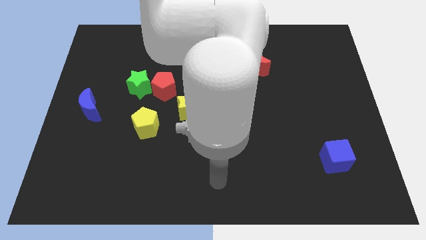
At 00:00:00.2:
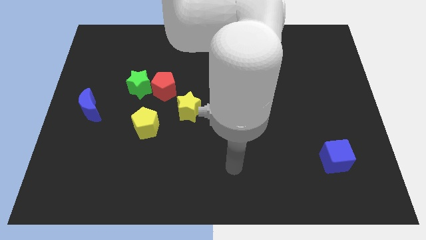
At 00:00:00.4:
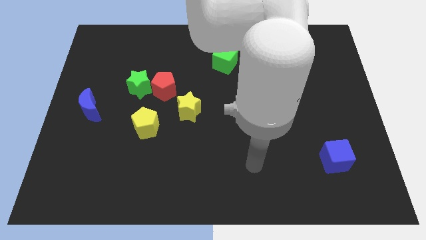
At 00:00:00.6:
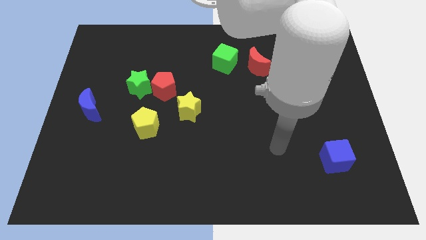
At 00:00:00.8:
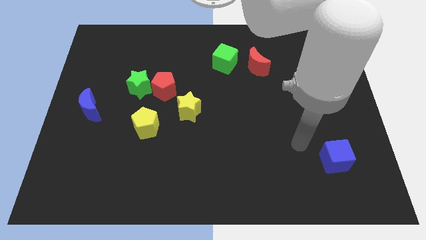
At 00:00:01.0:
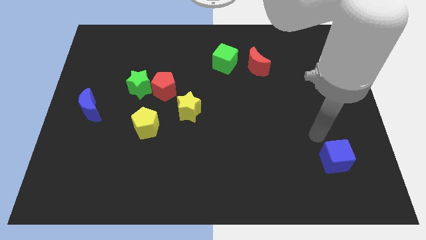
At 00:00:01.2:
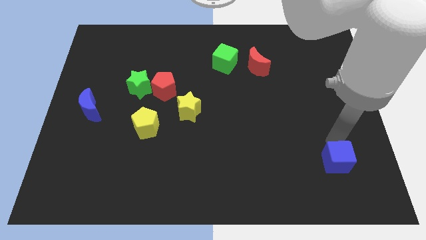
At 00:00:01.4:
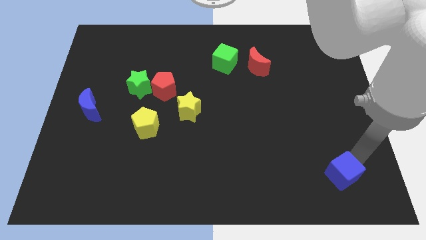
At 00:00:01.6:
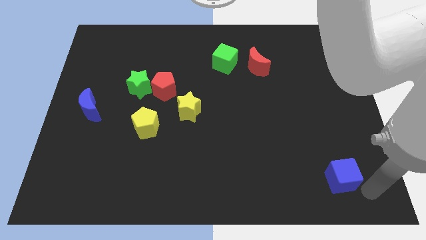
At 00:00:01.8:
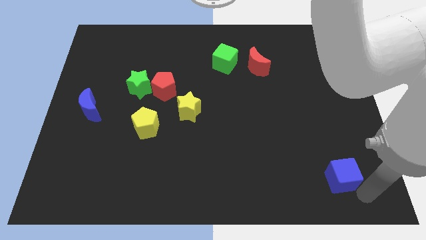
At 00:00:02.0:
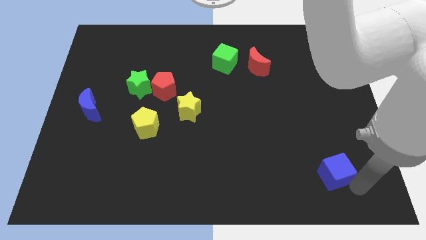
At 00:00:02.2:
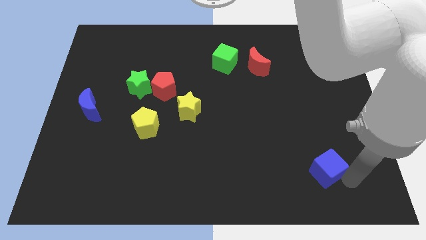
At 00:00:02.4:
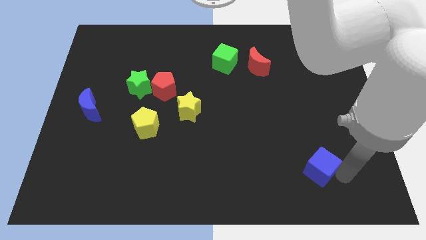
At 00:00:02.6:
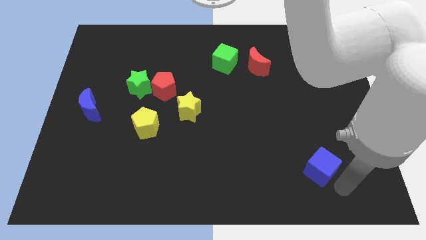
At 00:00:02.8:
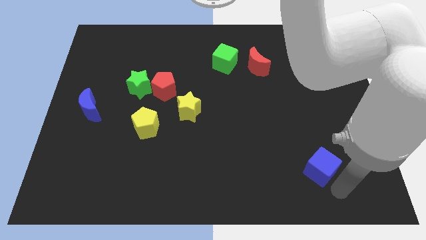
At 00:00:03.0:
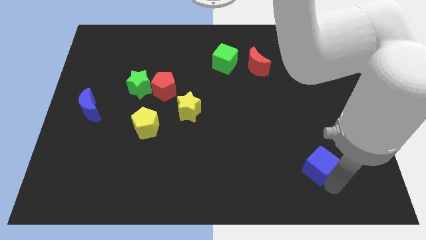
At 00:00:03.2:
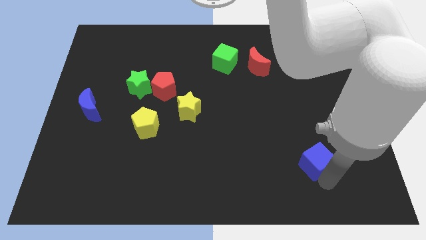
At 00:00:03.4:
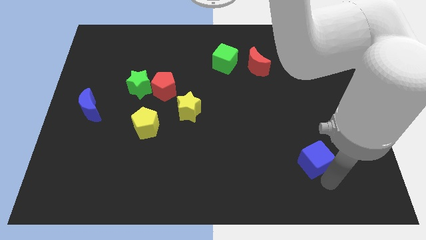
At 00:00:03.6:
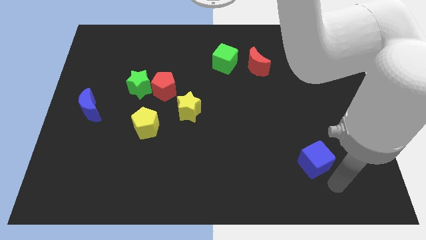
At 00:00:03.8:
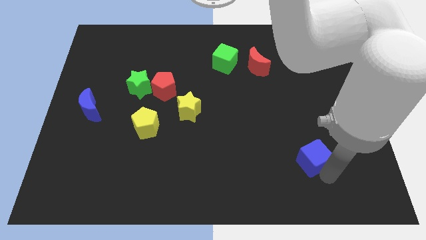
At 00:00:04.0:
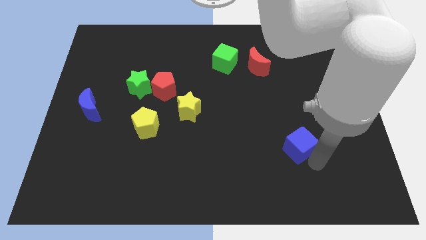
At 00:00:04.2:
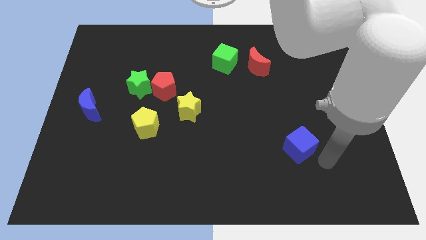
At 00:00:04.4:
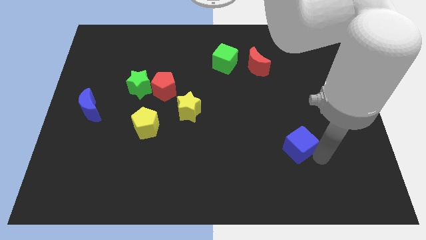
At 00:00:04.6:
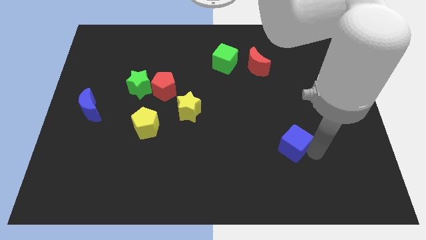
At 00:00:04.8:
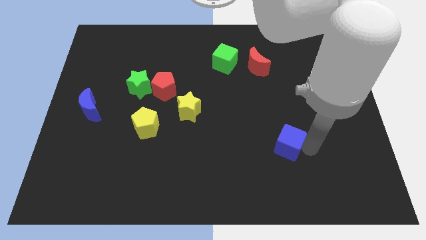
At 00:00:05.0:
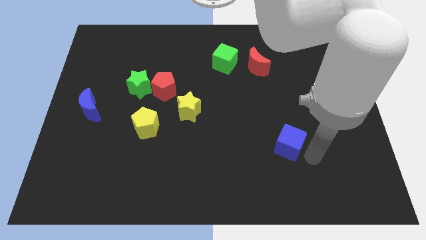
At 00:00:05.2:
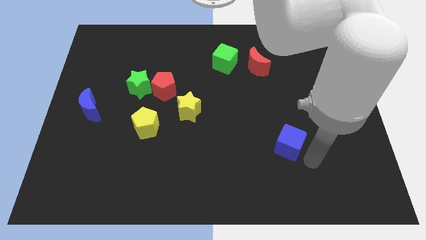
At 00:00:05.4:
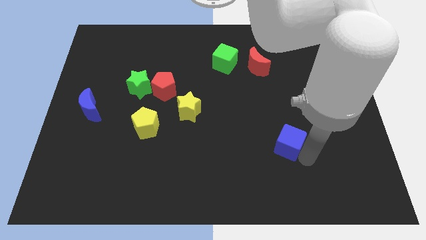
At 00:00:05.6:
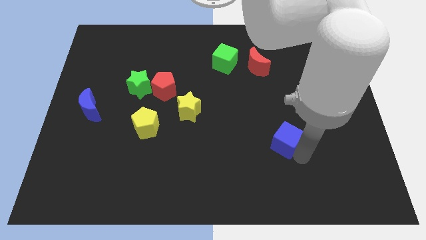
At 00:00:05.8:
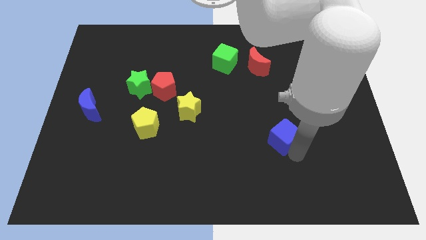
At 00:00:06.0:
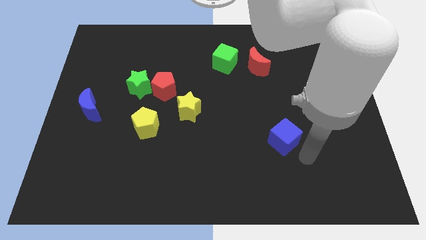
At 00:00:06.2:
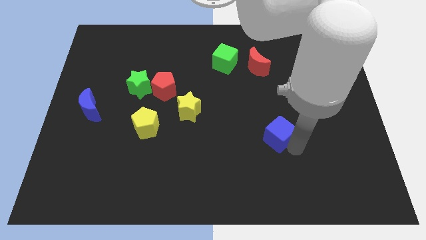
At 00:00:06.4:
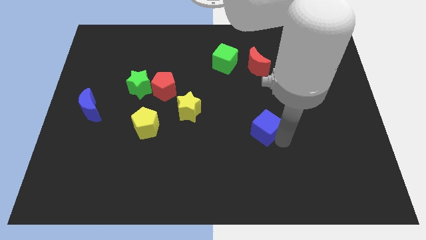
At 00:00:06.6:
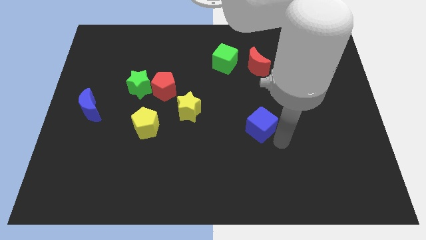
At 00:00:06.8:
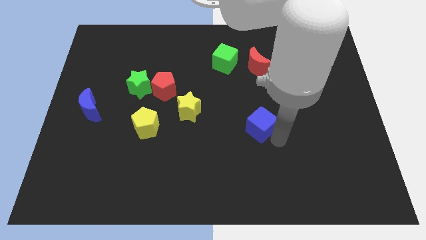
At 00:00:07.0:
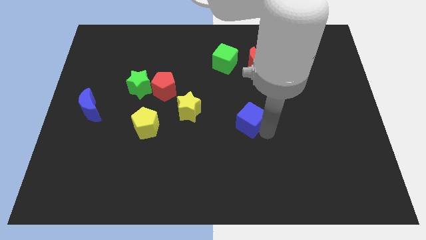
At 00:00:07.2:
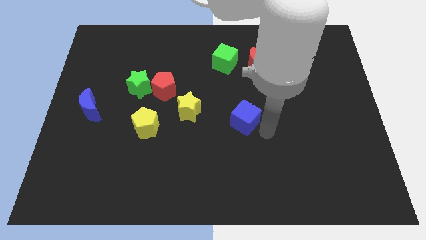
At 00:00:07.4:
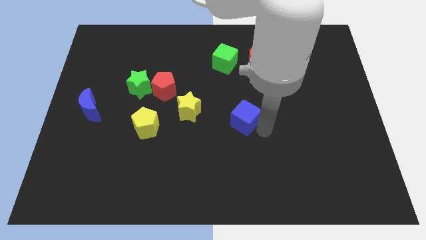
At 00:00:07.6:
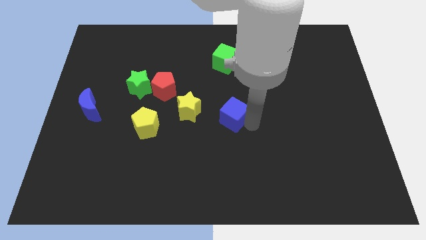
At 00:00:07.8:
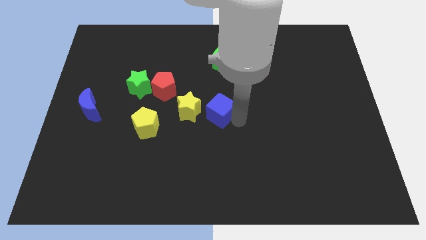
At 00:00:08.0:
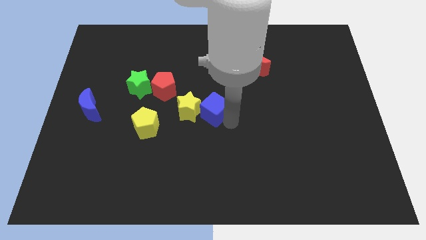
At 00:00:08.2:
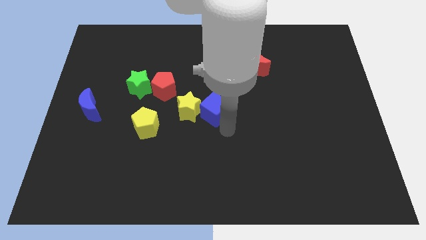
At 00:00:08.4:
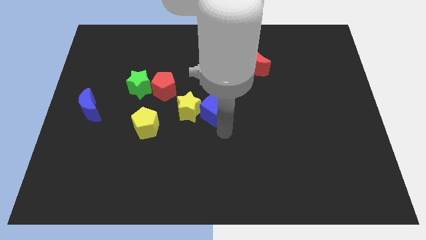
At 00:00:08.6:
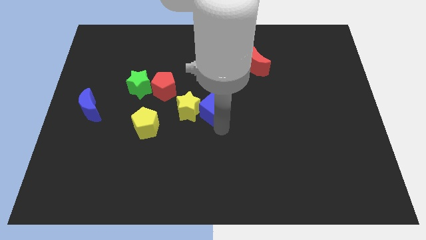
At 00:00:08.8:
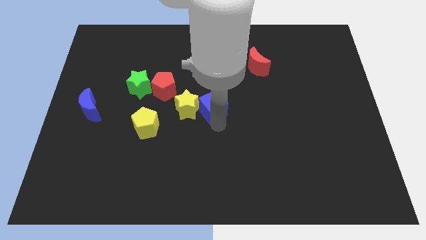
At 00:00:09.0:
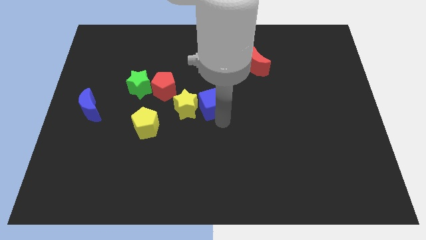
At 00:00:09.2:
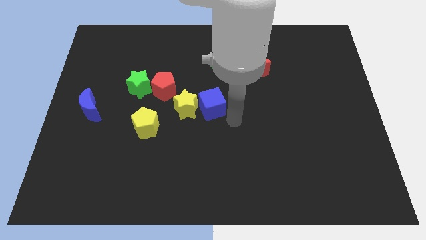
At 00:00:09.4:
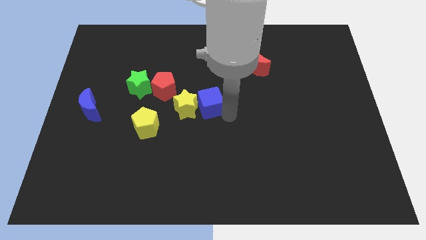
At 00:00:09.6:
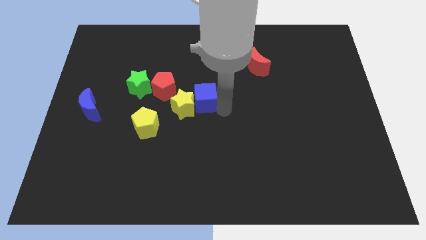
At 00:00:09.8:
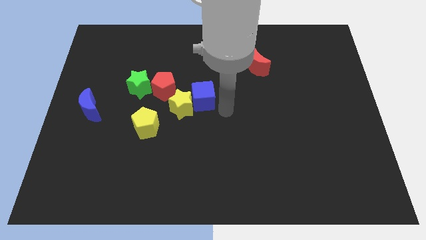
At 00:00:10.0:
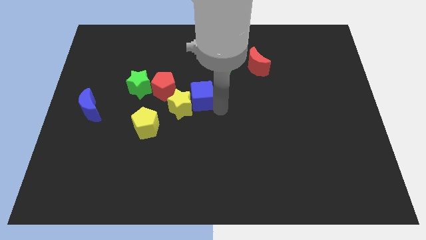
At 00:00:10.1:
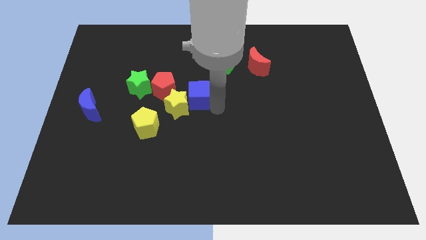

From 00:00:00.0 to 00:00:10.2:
put the blue cube just right of the green star

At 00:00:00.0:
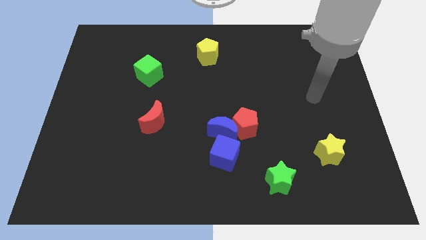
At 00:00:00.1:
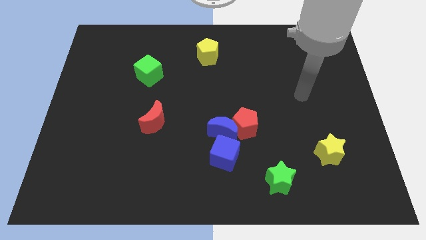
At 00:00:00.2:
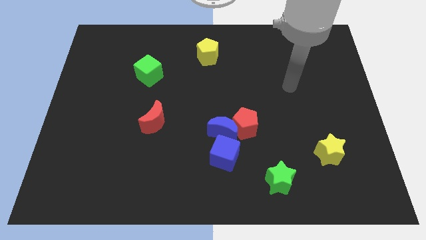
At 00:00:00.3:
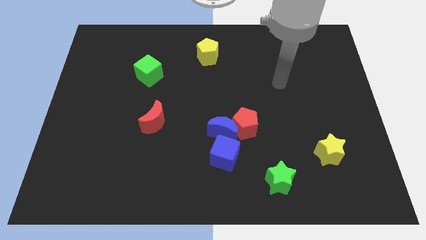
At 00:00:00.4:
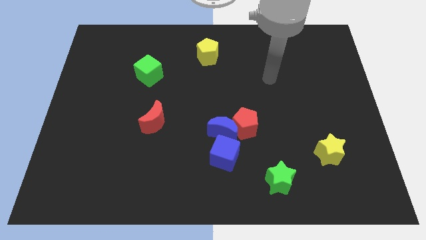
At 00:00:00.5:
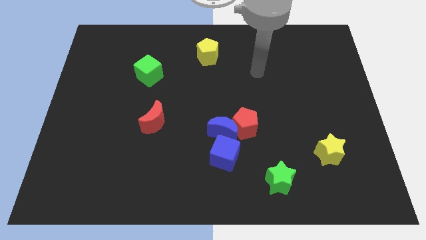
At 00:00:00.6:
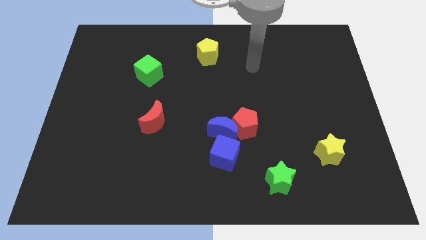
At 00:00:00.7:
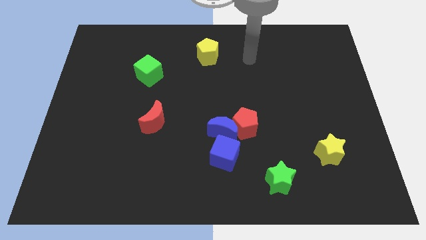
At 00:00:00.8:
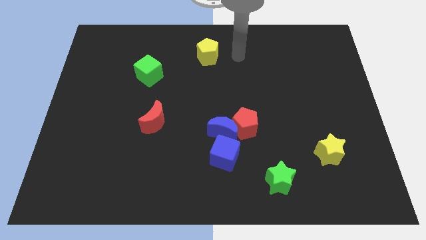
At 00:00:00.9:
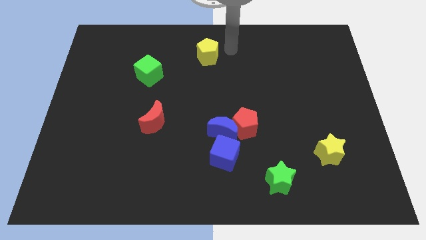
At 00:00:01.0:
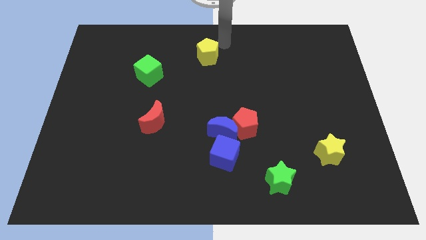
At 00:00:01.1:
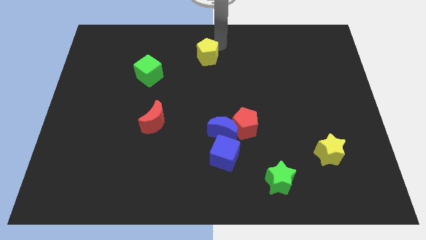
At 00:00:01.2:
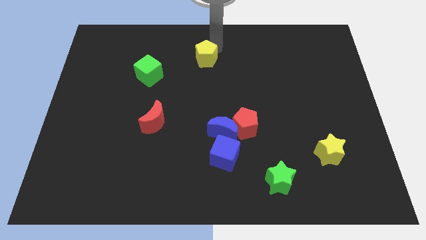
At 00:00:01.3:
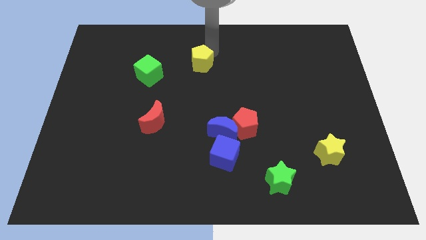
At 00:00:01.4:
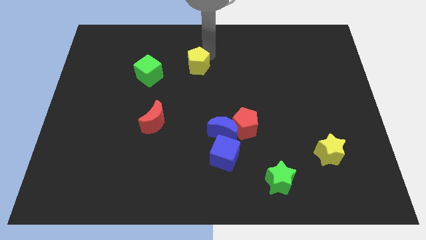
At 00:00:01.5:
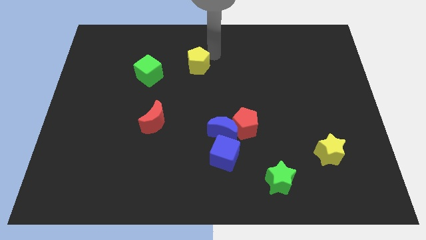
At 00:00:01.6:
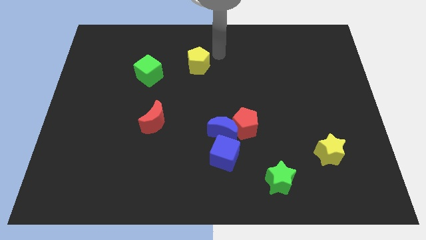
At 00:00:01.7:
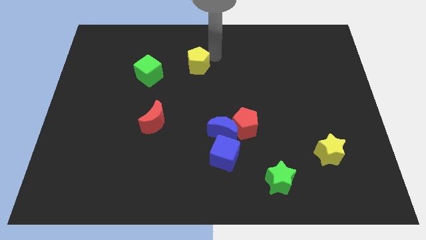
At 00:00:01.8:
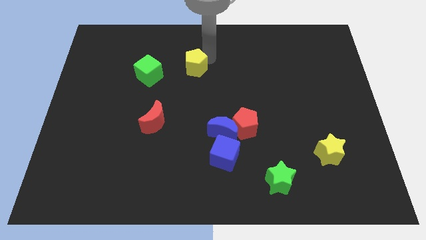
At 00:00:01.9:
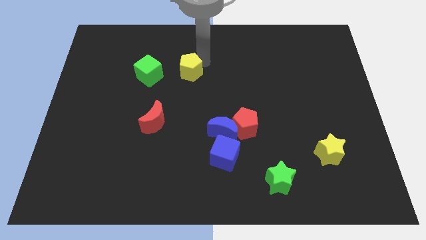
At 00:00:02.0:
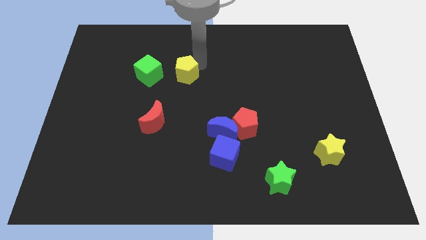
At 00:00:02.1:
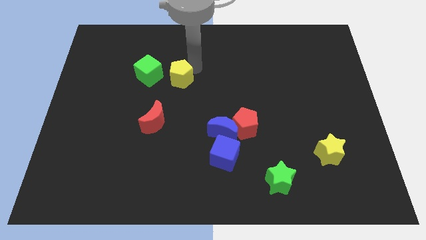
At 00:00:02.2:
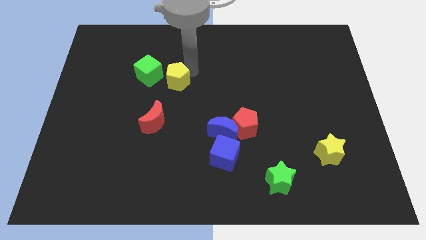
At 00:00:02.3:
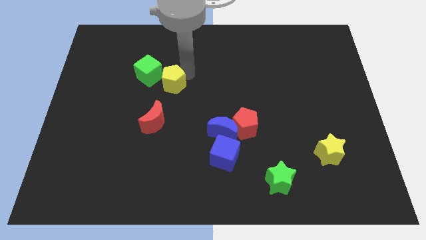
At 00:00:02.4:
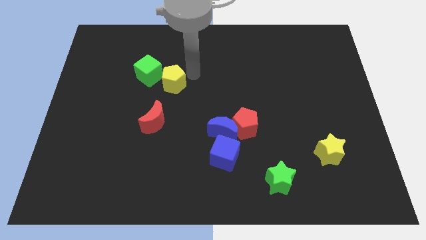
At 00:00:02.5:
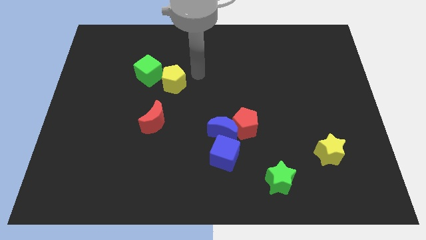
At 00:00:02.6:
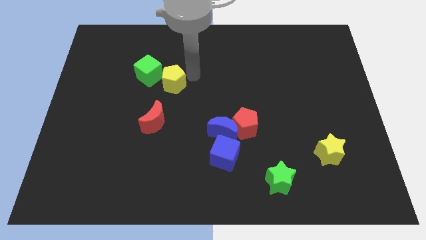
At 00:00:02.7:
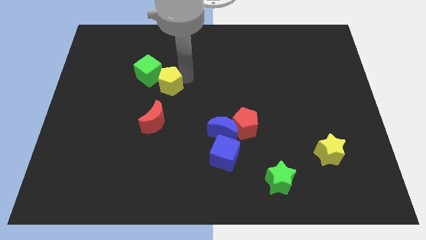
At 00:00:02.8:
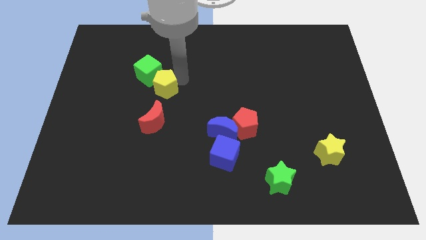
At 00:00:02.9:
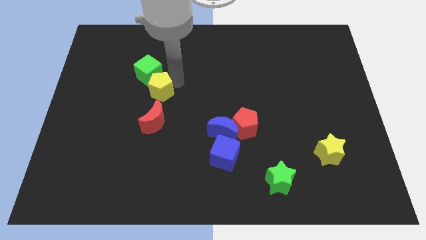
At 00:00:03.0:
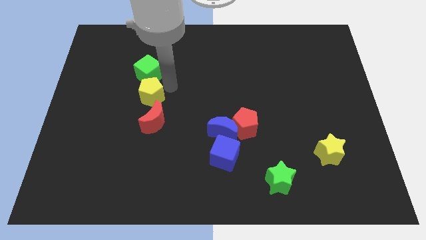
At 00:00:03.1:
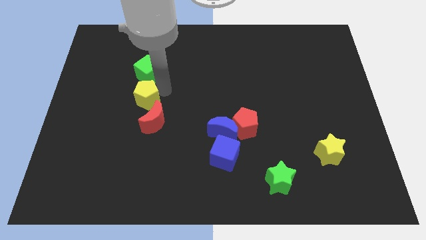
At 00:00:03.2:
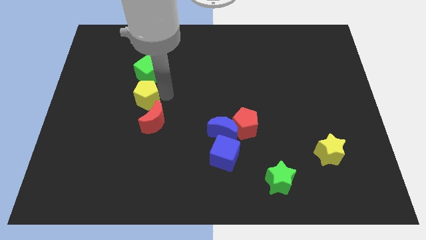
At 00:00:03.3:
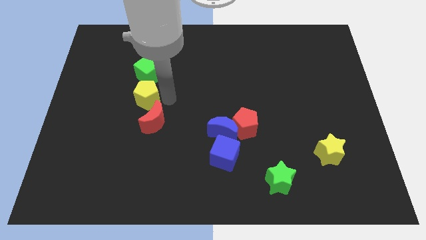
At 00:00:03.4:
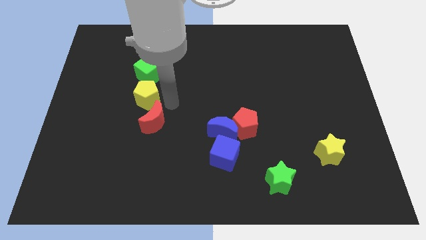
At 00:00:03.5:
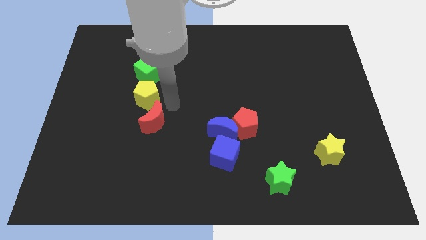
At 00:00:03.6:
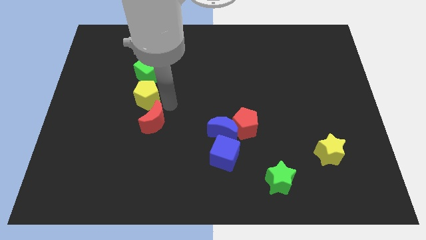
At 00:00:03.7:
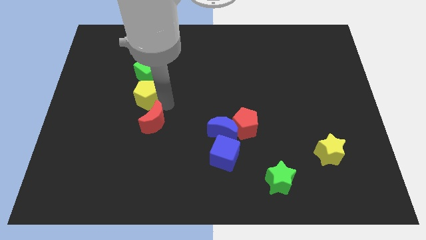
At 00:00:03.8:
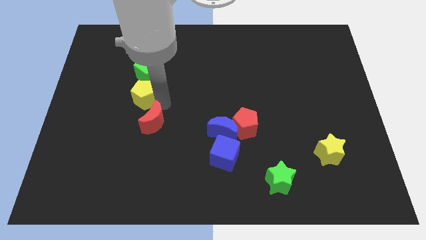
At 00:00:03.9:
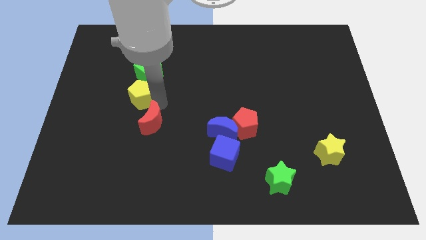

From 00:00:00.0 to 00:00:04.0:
put the yellow pentagon to the bottom left of the green cube
